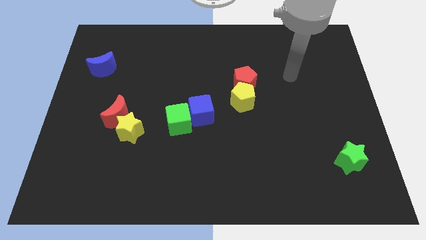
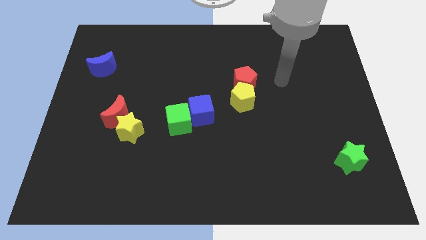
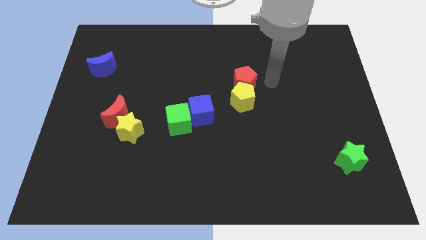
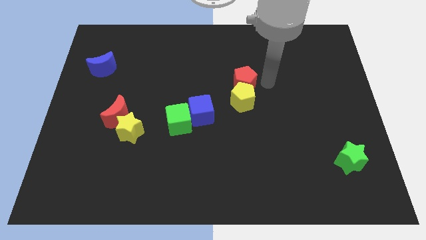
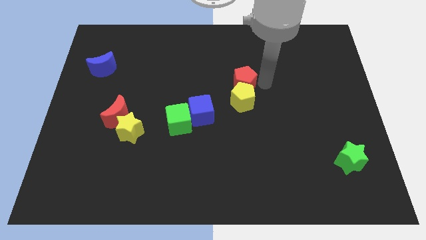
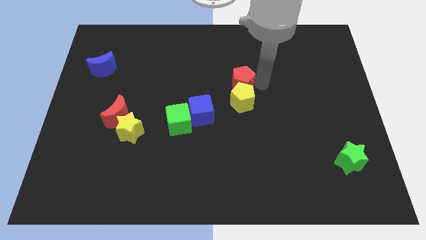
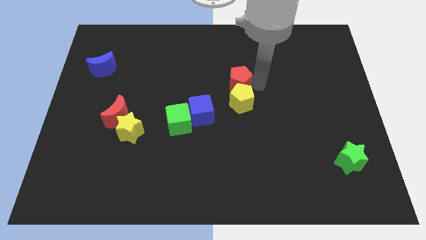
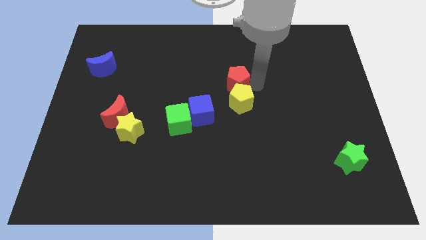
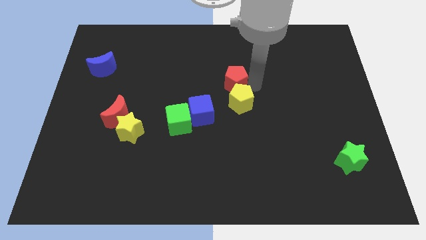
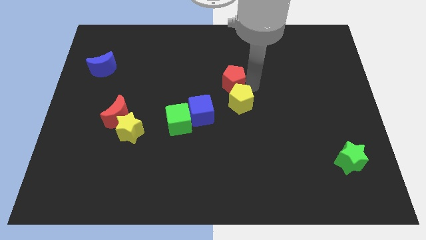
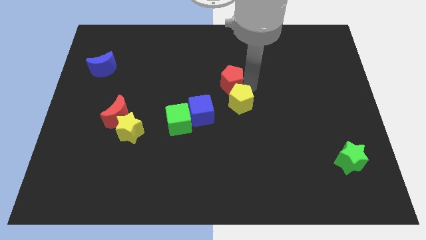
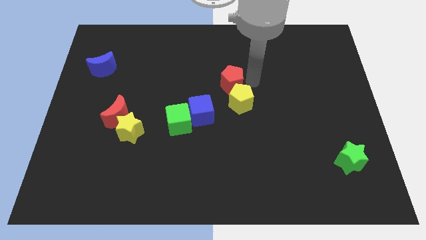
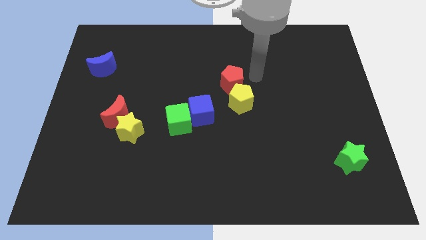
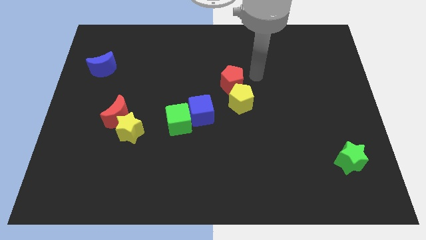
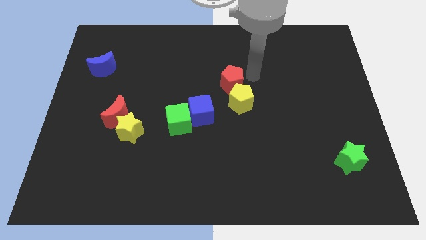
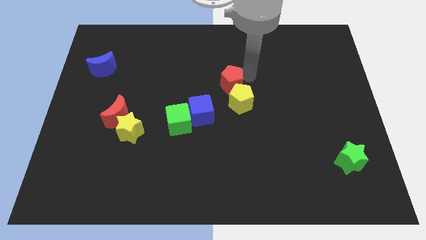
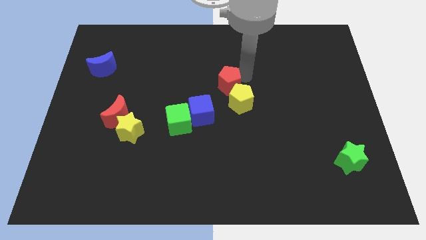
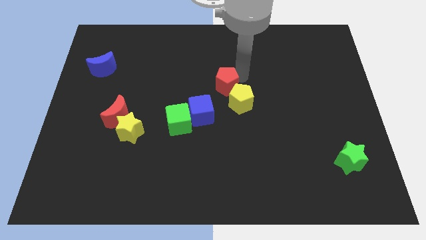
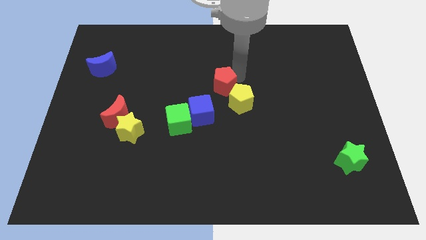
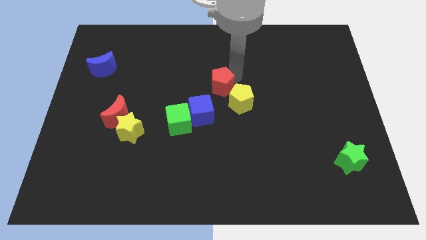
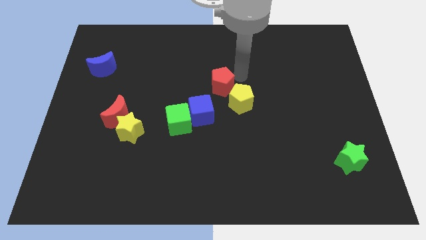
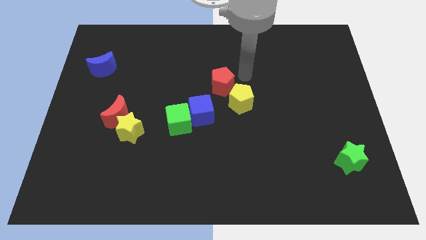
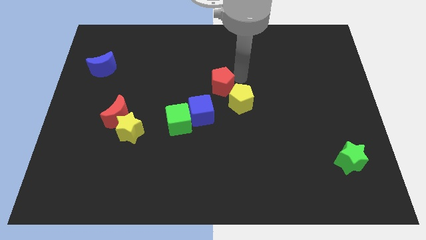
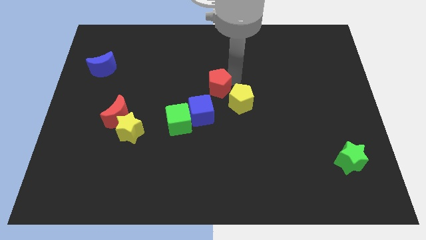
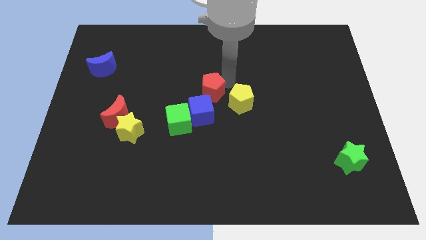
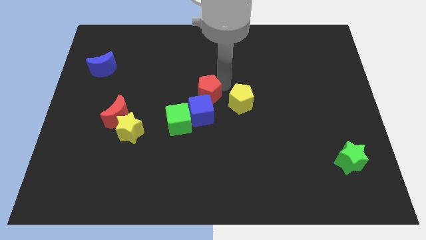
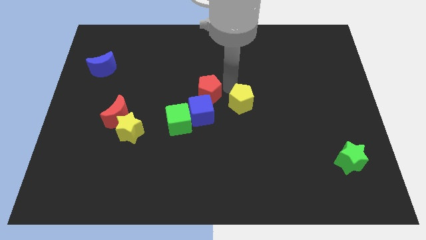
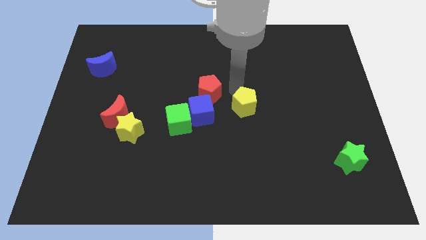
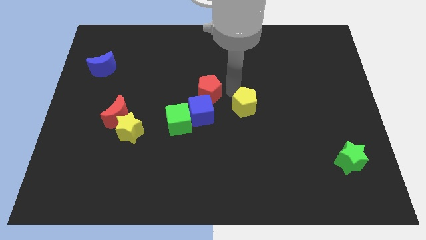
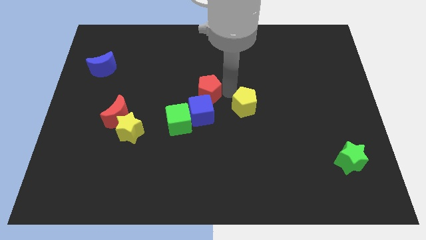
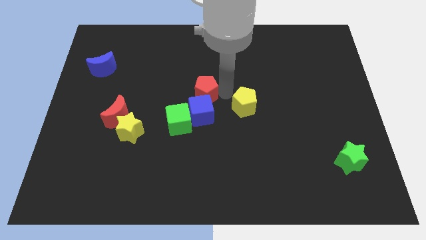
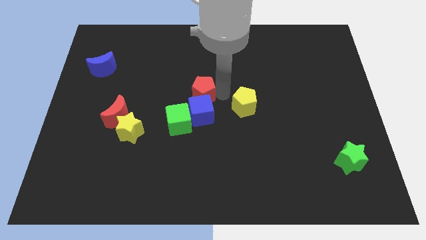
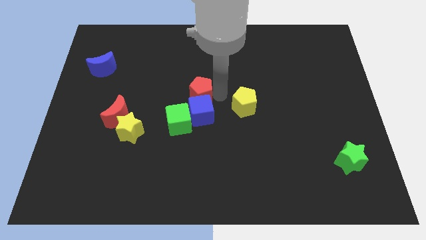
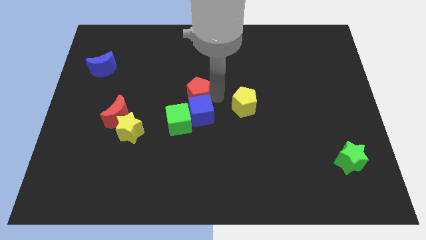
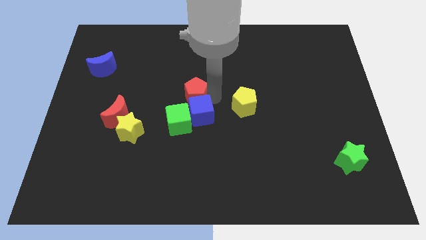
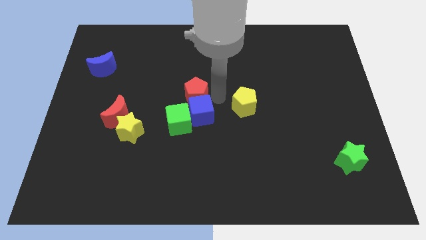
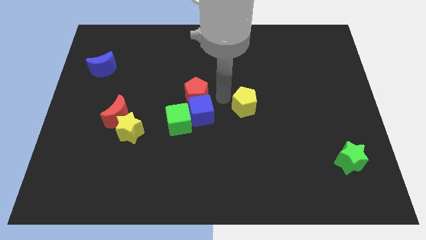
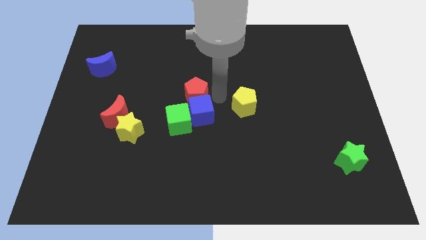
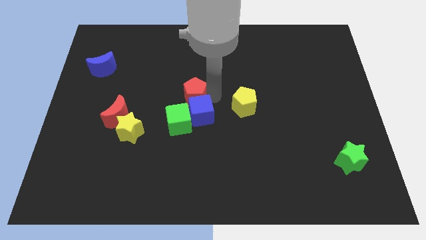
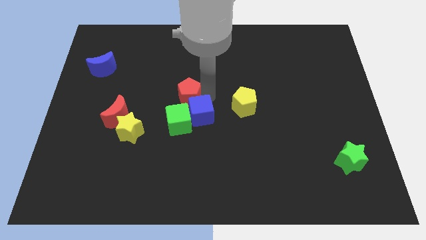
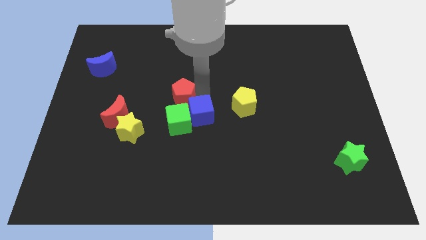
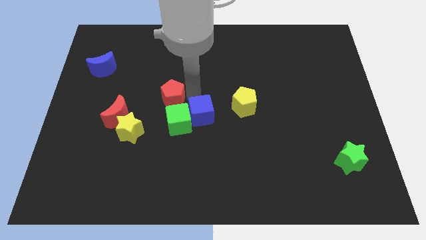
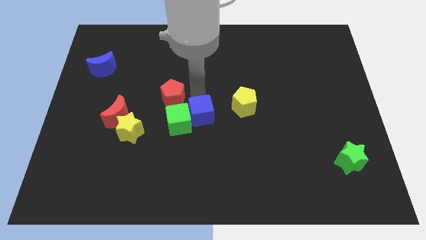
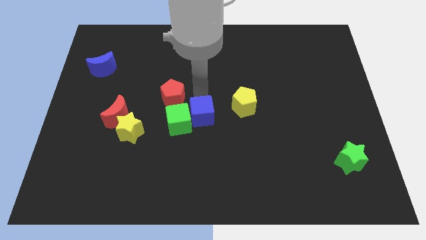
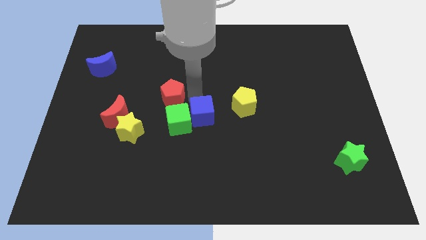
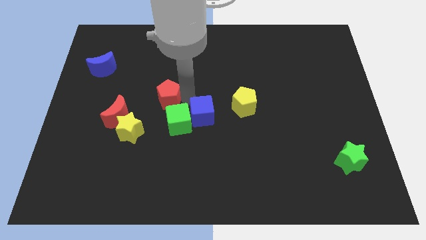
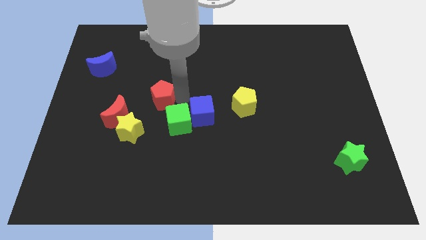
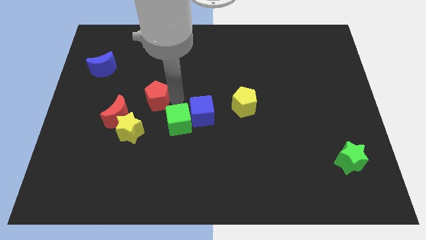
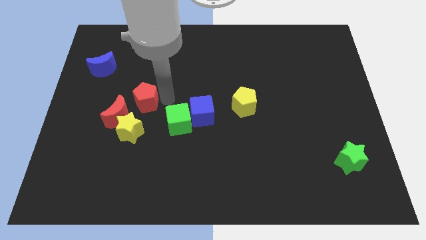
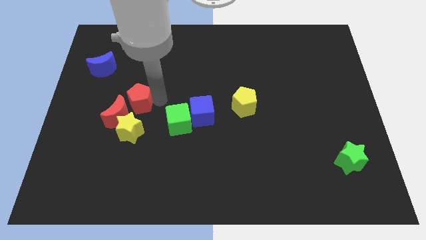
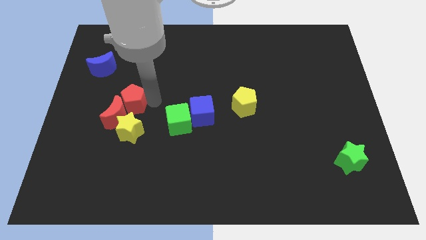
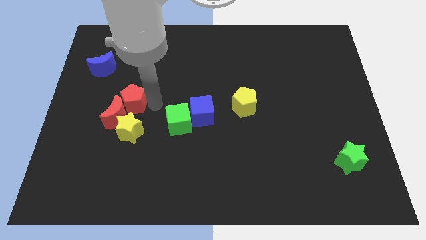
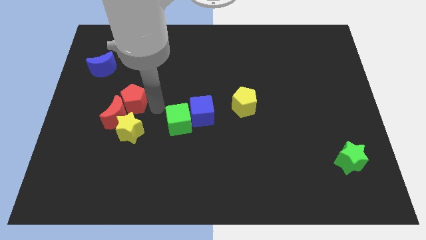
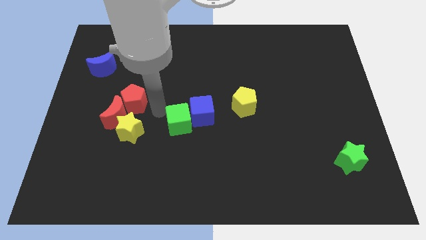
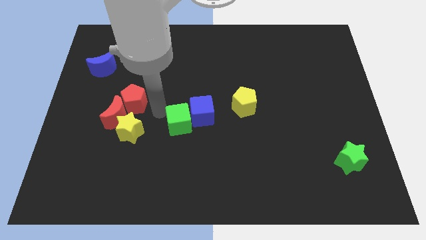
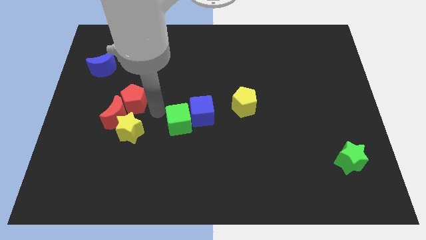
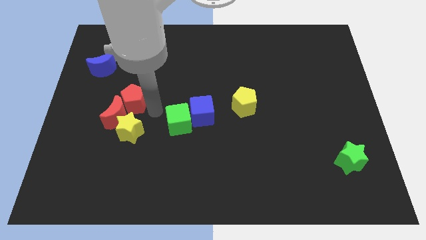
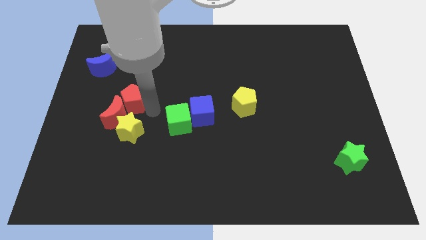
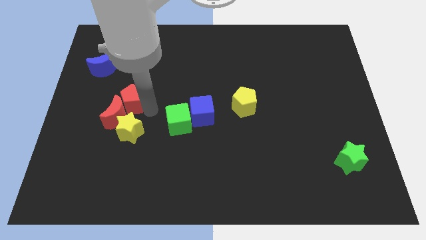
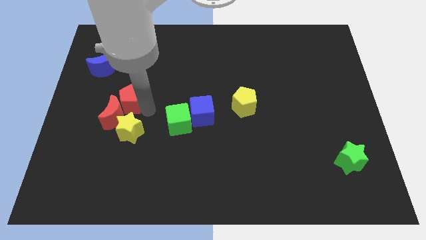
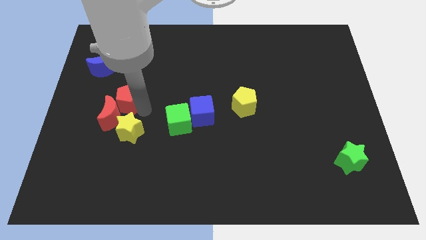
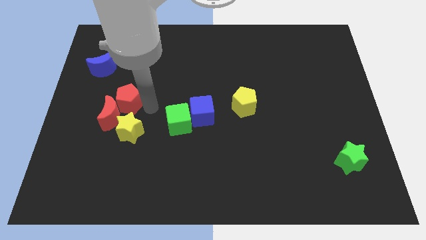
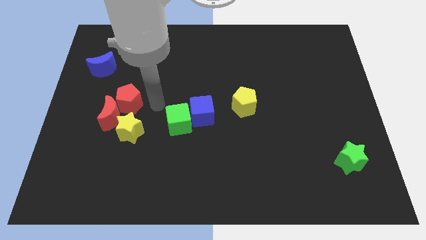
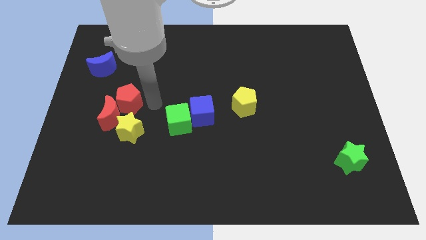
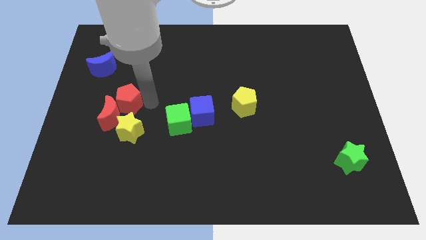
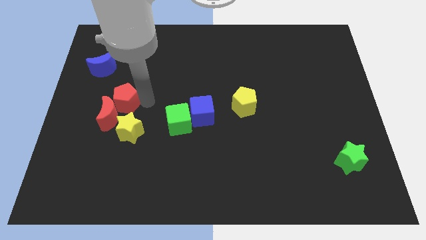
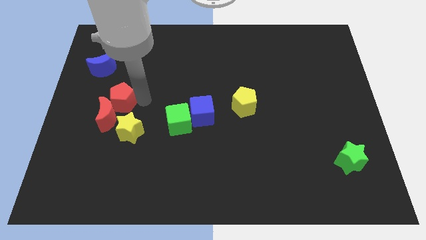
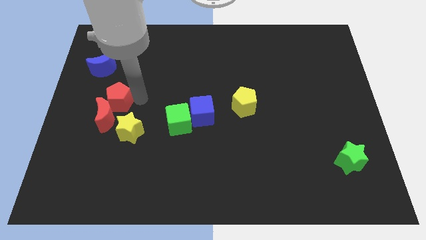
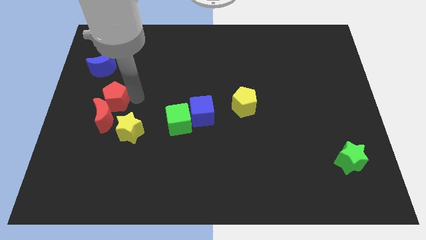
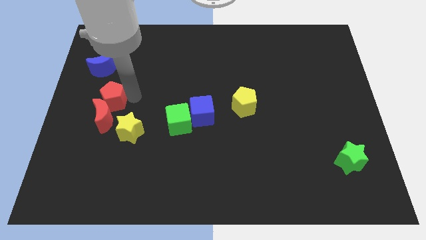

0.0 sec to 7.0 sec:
push the red pentagon to the top left of the red moon

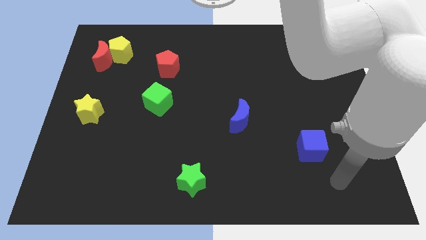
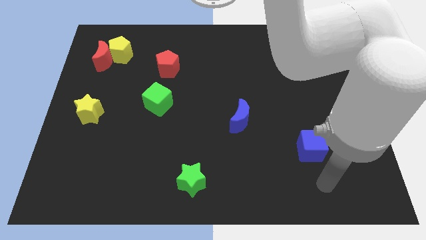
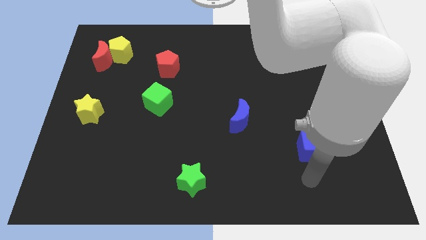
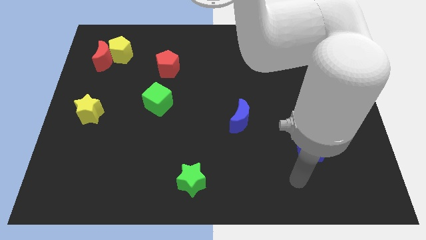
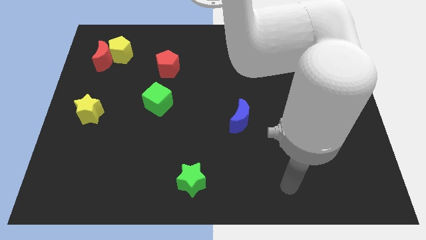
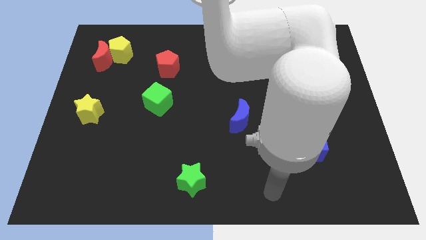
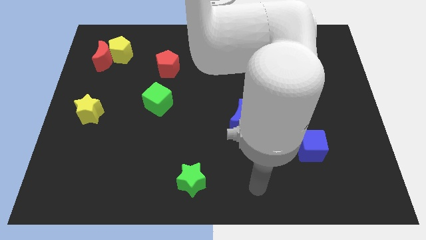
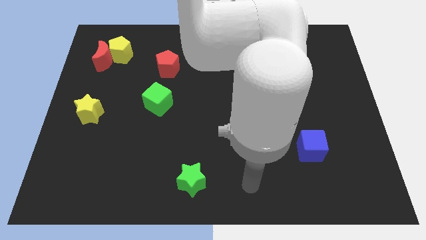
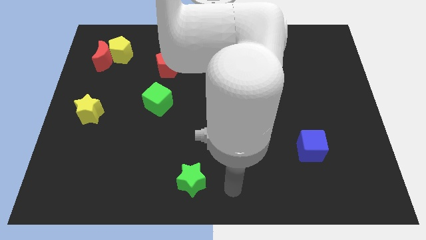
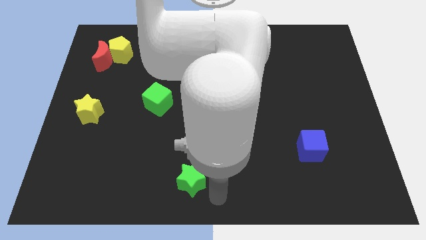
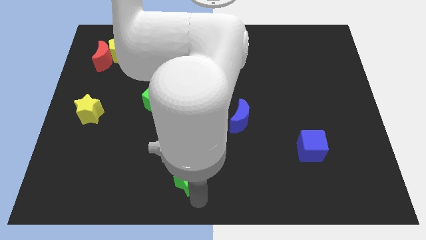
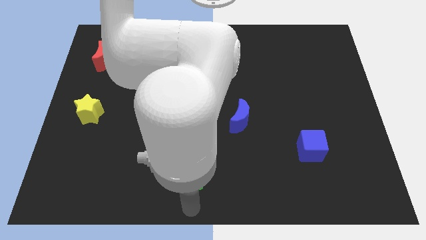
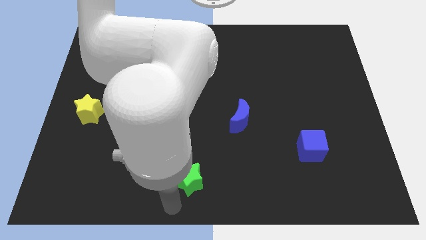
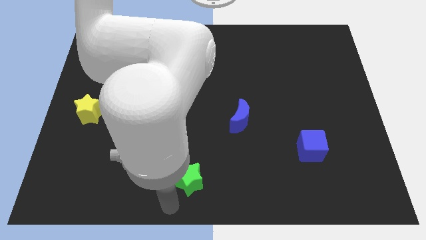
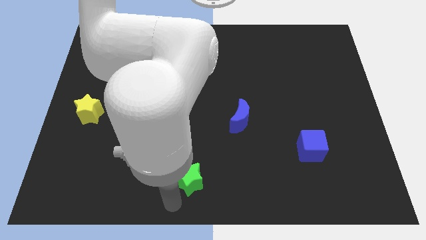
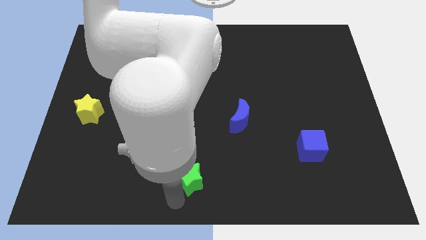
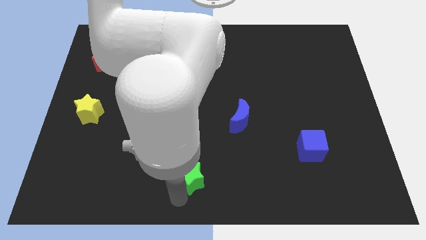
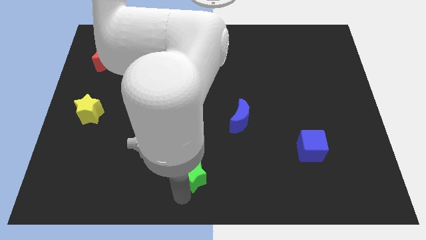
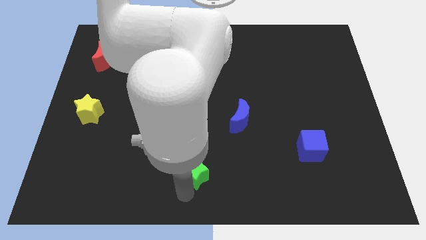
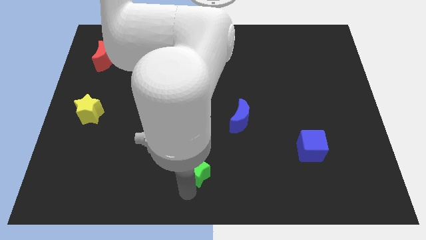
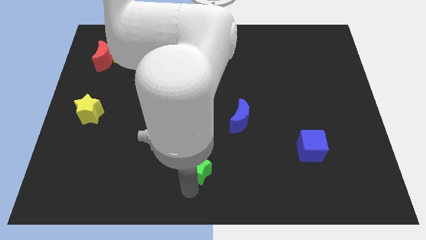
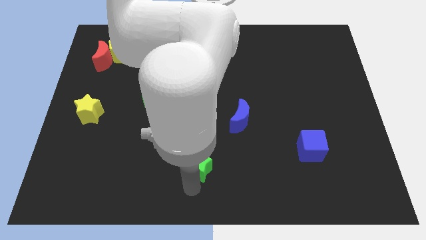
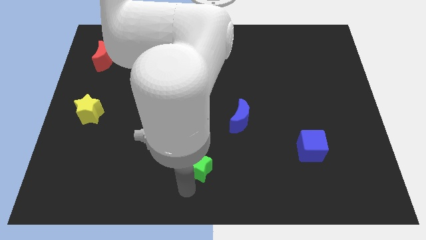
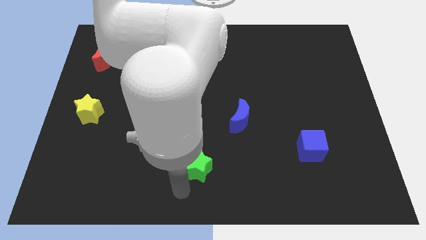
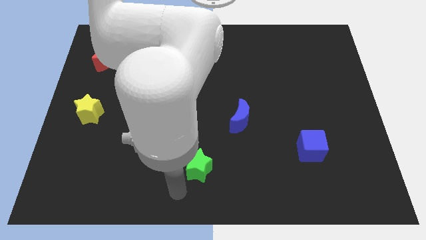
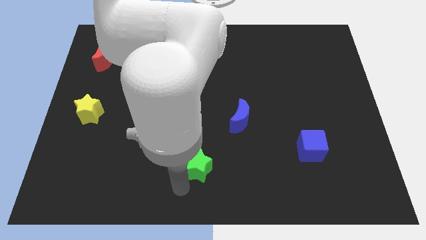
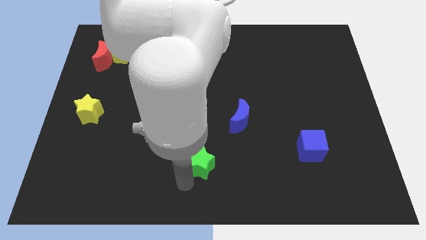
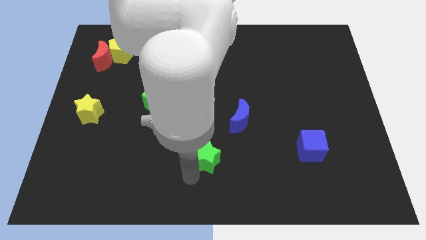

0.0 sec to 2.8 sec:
move the green star to the bottom left side of the blue moon
